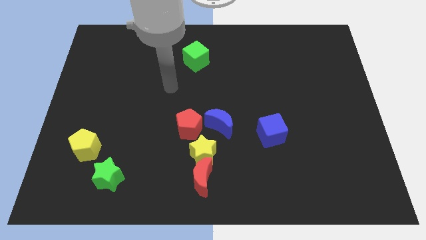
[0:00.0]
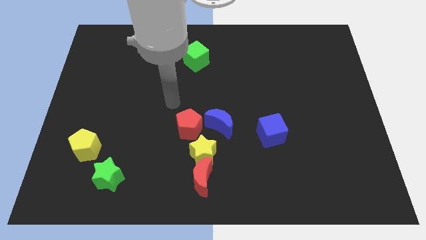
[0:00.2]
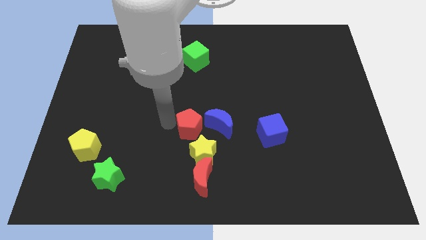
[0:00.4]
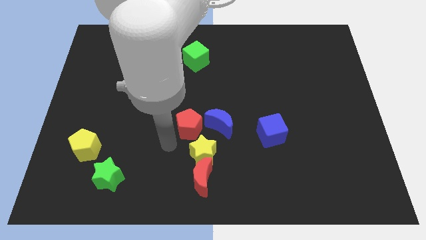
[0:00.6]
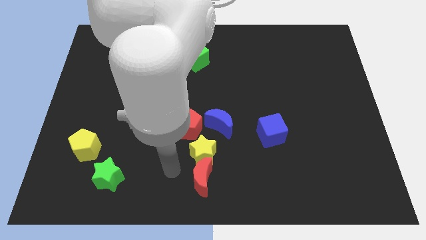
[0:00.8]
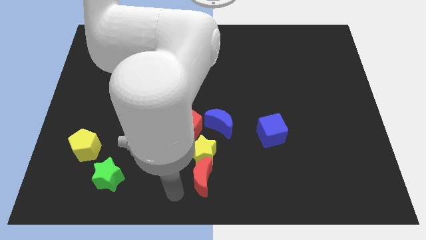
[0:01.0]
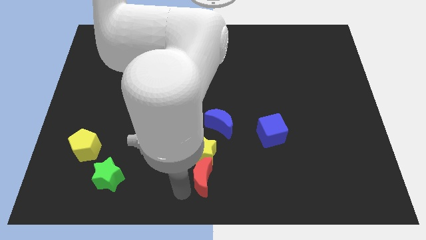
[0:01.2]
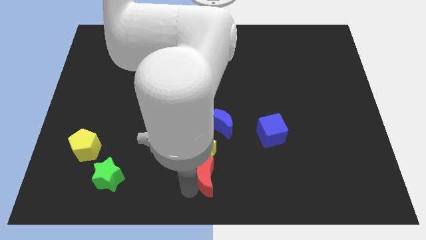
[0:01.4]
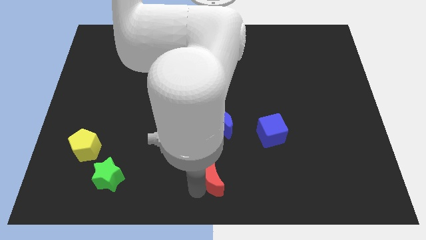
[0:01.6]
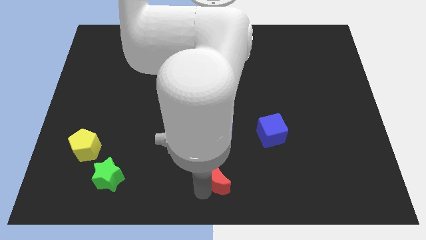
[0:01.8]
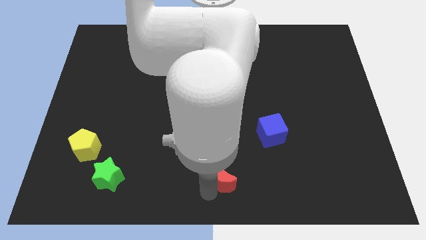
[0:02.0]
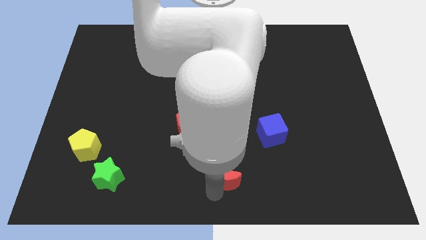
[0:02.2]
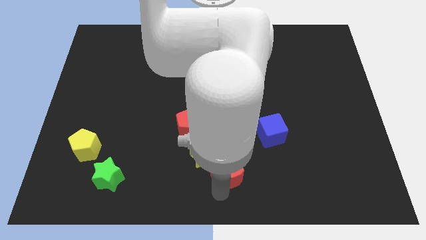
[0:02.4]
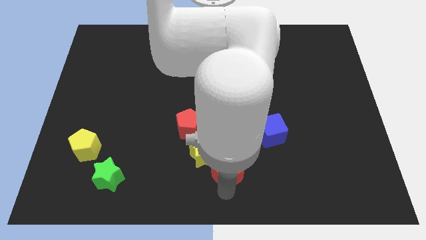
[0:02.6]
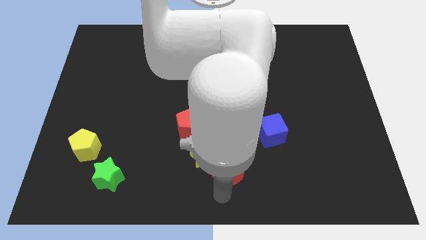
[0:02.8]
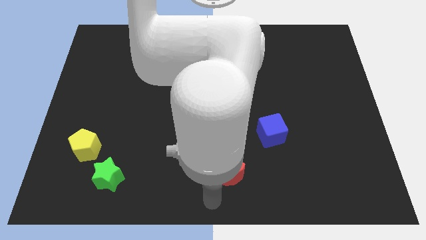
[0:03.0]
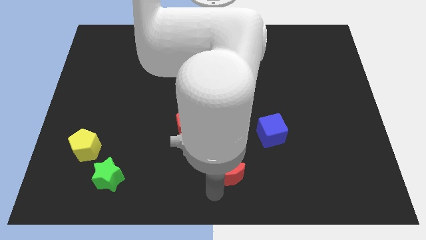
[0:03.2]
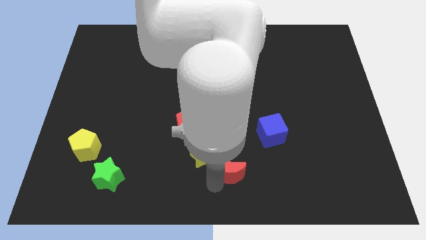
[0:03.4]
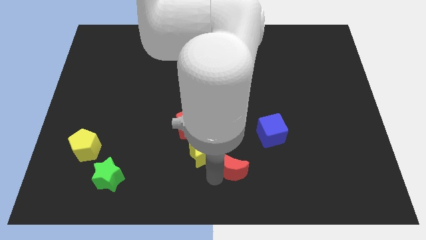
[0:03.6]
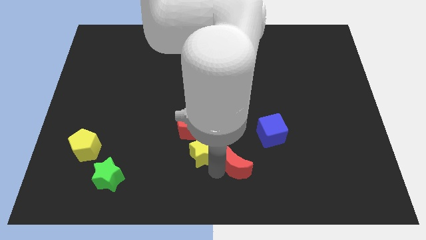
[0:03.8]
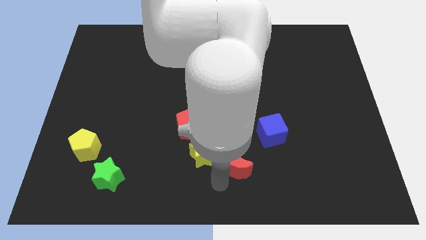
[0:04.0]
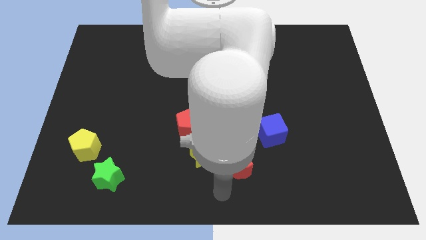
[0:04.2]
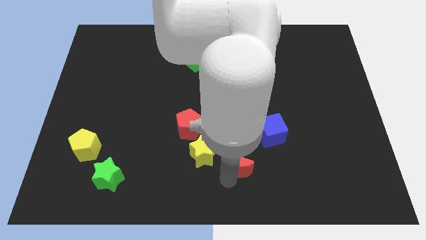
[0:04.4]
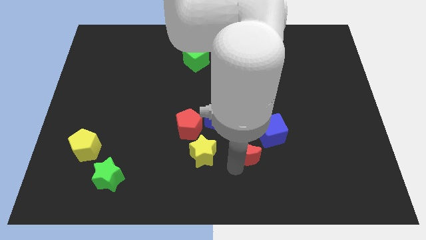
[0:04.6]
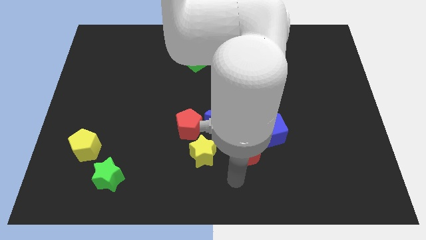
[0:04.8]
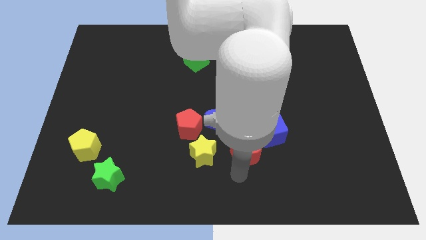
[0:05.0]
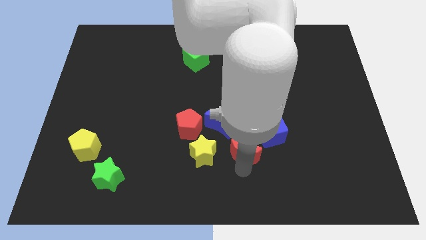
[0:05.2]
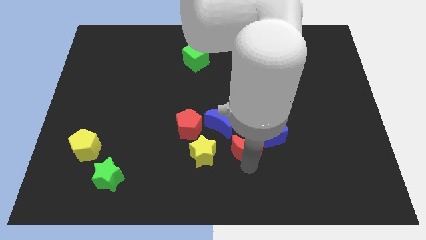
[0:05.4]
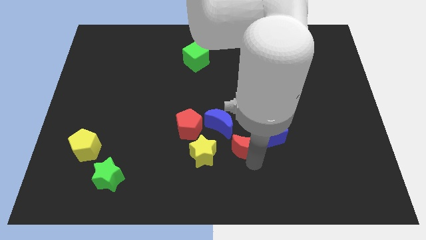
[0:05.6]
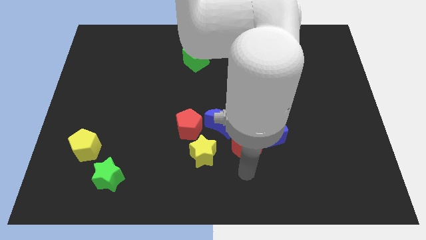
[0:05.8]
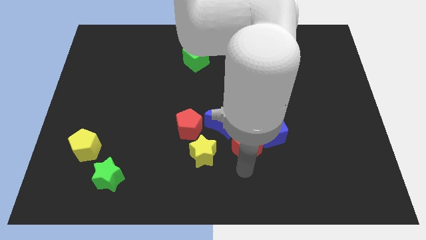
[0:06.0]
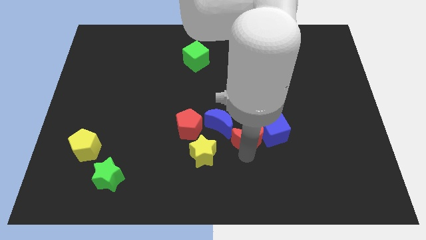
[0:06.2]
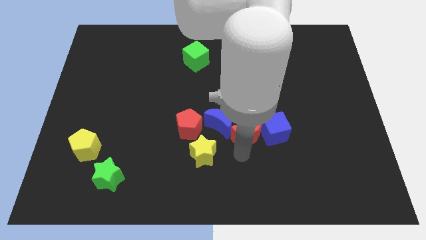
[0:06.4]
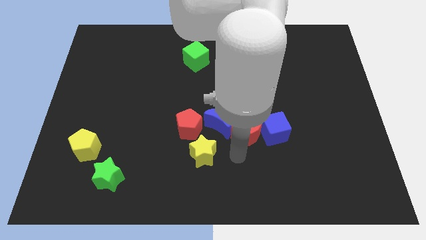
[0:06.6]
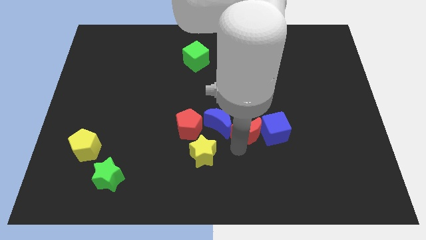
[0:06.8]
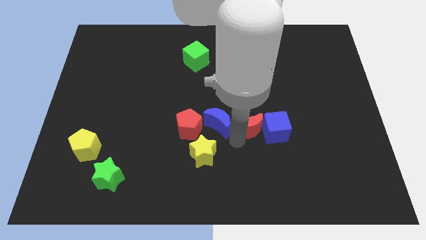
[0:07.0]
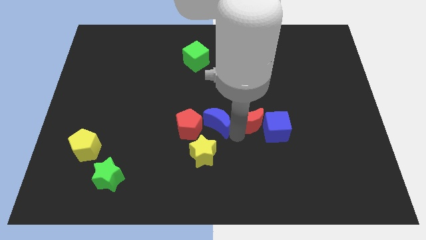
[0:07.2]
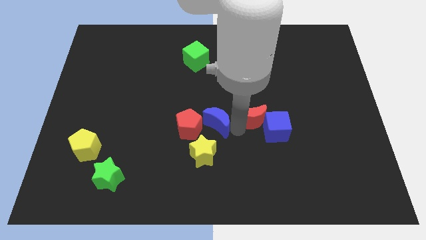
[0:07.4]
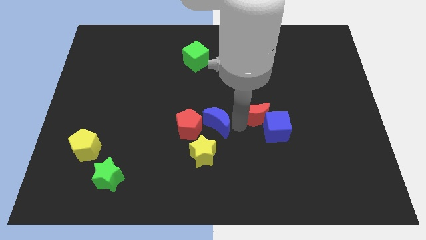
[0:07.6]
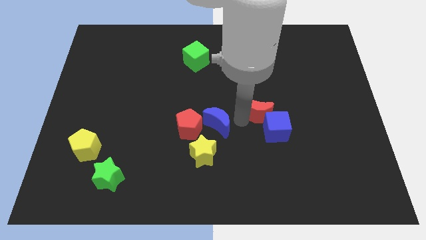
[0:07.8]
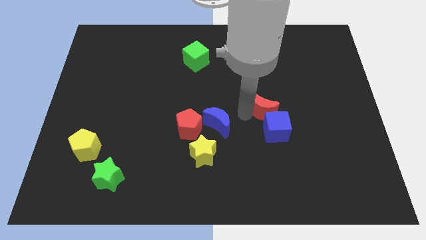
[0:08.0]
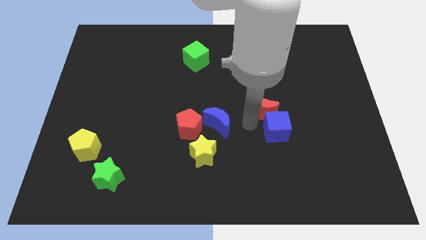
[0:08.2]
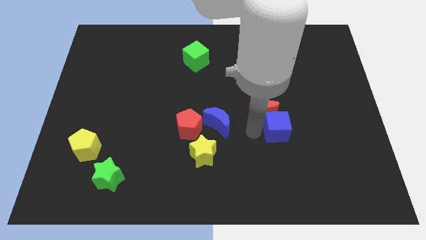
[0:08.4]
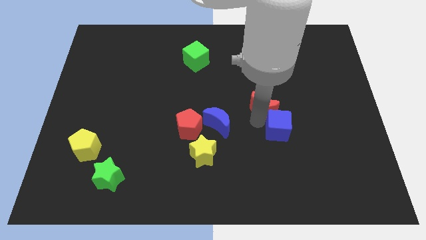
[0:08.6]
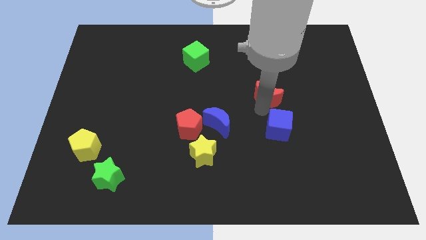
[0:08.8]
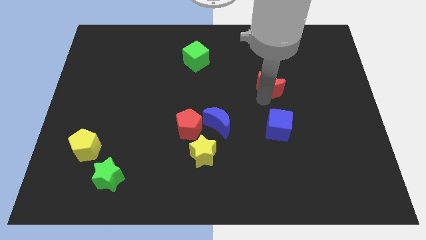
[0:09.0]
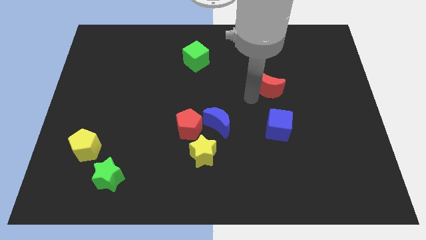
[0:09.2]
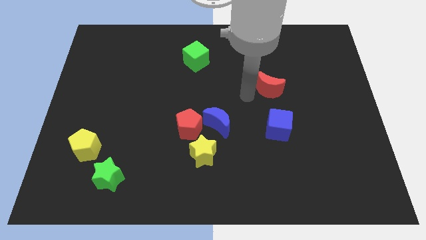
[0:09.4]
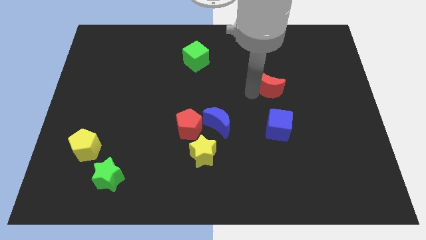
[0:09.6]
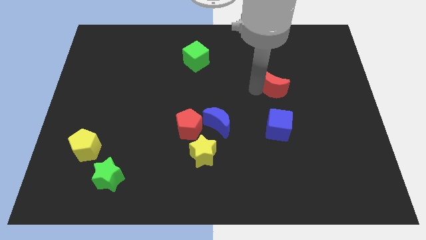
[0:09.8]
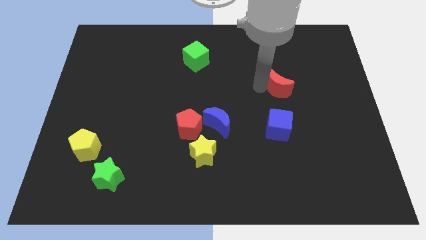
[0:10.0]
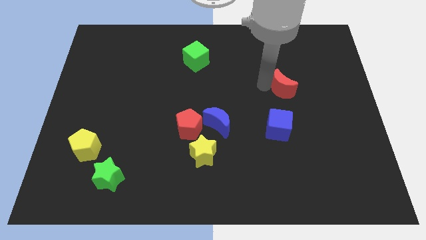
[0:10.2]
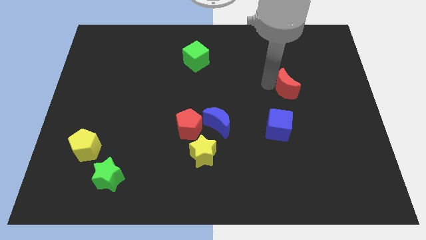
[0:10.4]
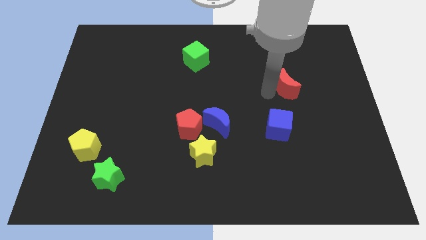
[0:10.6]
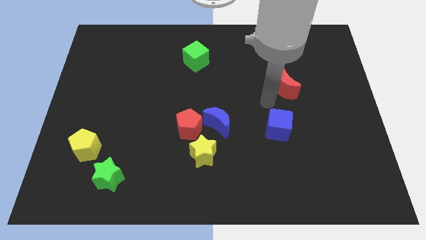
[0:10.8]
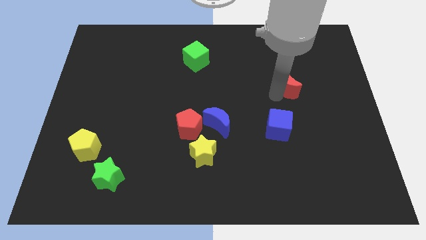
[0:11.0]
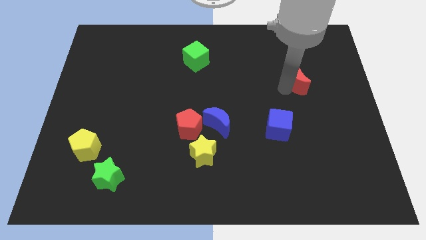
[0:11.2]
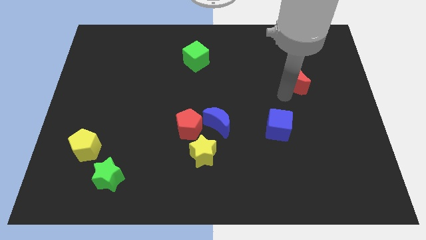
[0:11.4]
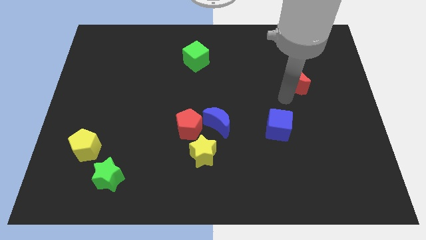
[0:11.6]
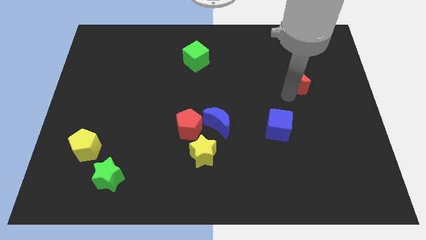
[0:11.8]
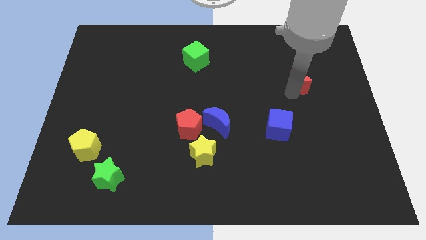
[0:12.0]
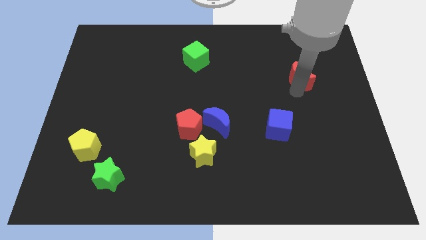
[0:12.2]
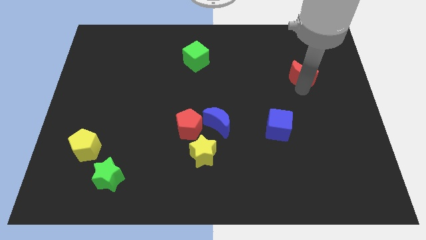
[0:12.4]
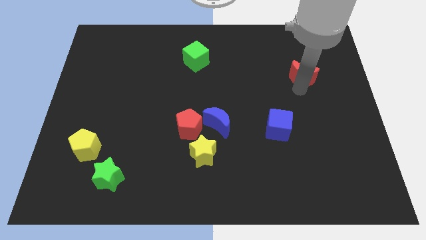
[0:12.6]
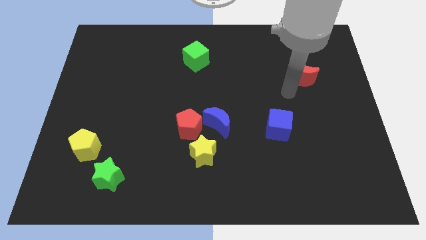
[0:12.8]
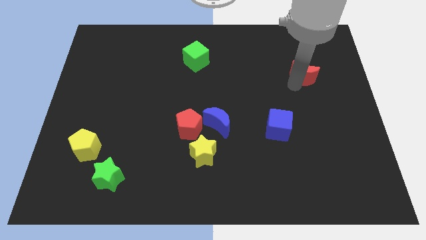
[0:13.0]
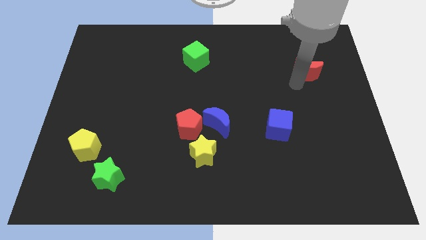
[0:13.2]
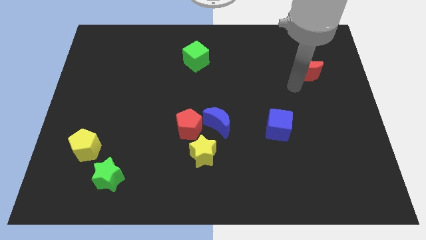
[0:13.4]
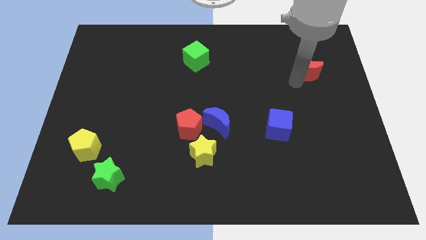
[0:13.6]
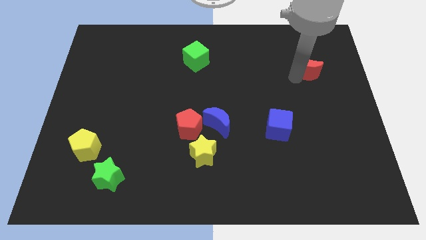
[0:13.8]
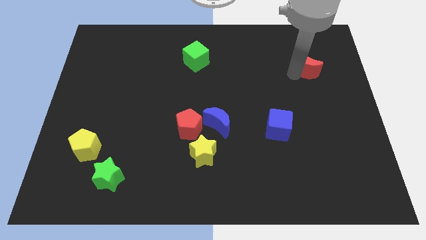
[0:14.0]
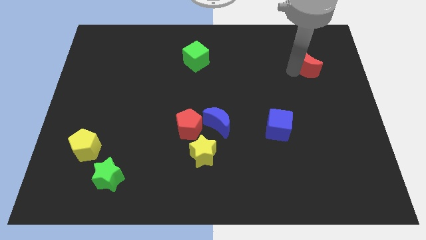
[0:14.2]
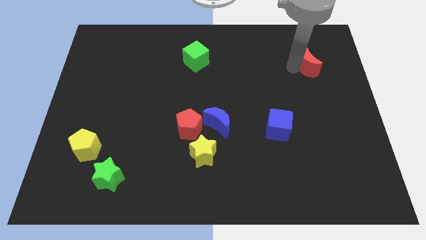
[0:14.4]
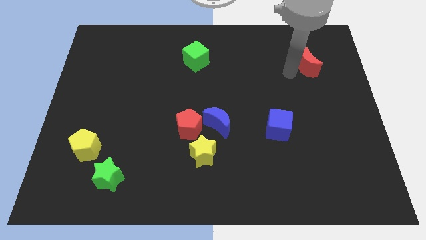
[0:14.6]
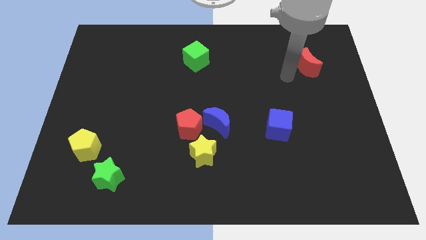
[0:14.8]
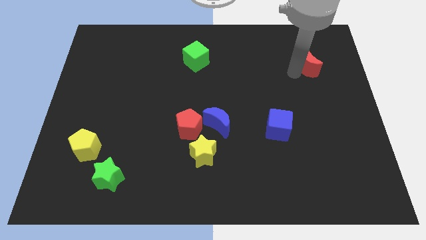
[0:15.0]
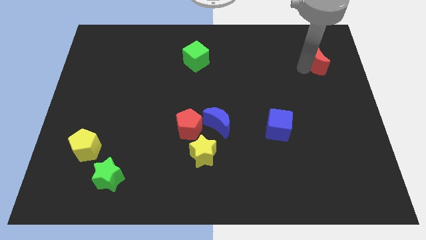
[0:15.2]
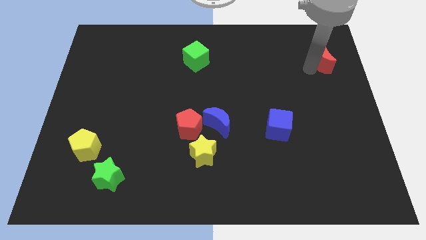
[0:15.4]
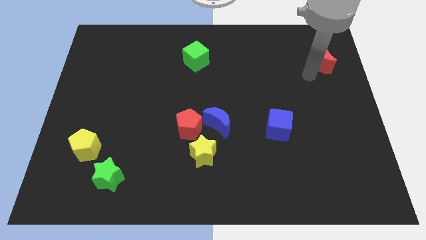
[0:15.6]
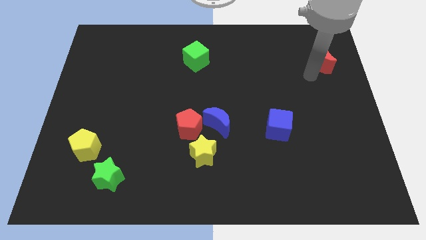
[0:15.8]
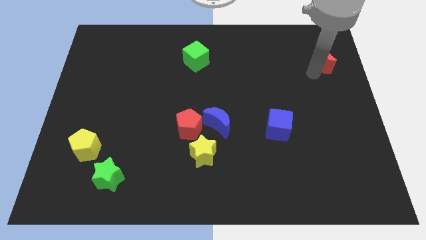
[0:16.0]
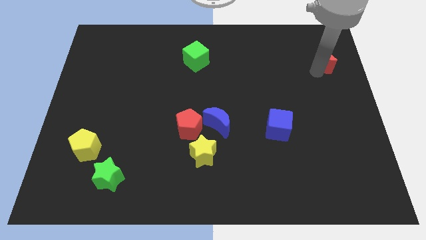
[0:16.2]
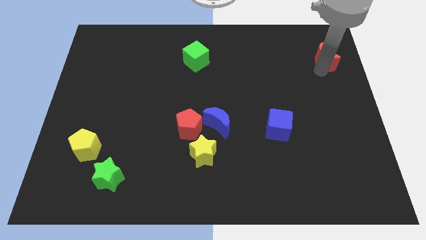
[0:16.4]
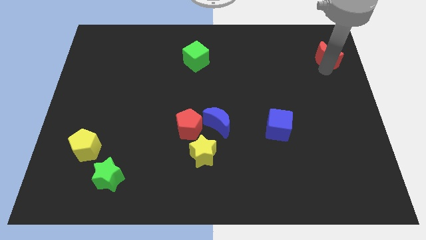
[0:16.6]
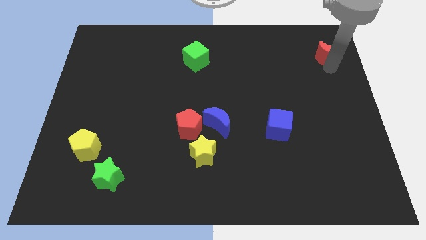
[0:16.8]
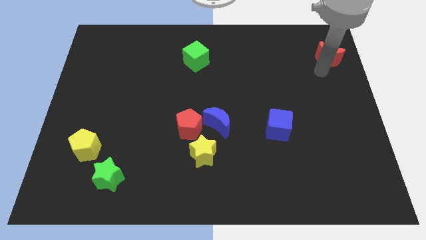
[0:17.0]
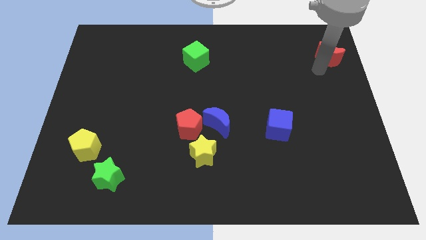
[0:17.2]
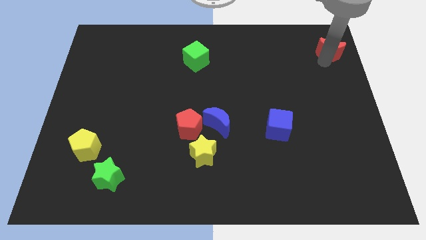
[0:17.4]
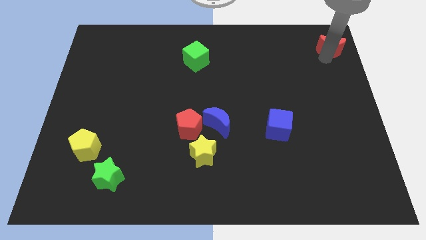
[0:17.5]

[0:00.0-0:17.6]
move the red moon to the top right of the board
